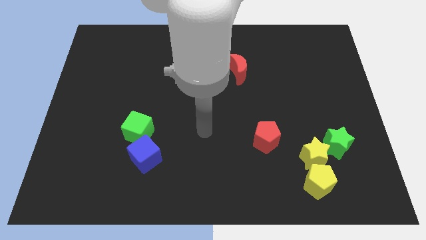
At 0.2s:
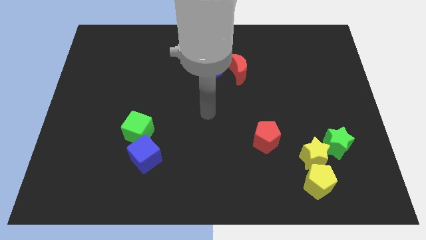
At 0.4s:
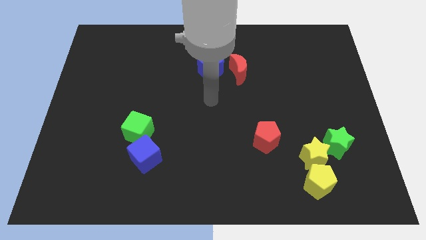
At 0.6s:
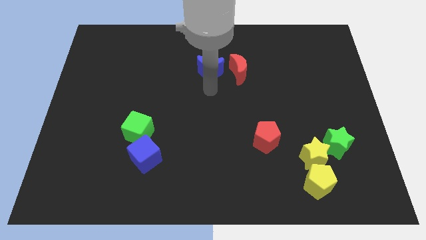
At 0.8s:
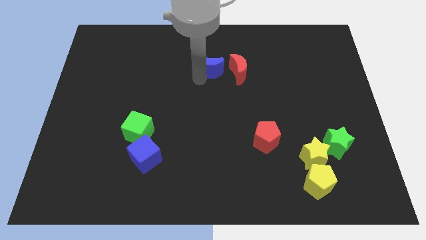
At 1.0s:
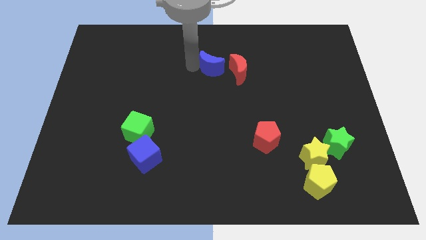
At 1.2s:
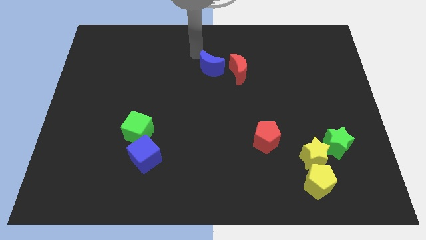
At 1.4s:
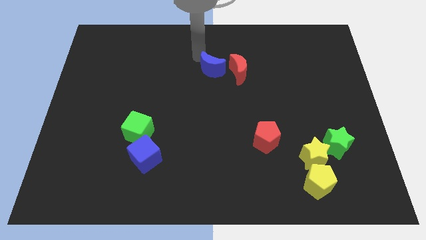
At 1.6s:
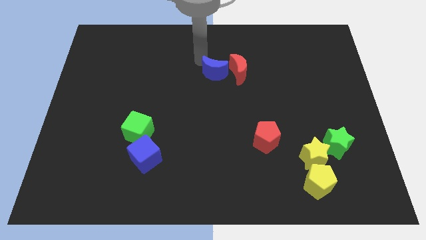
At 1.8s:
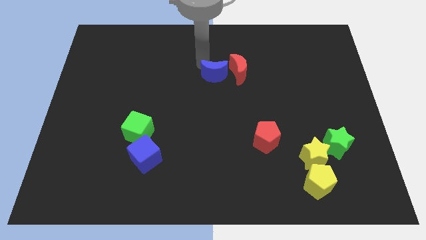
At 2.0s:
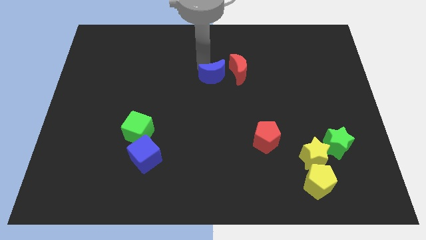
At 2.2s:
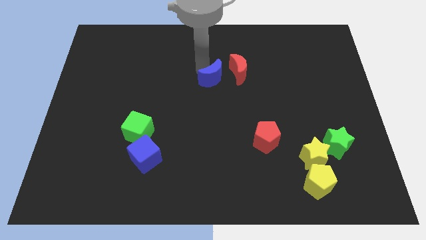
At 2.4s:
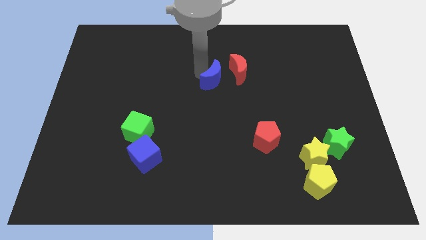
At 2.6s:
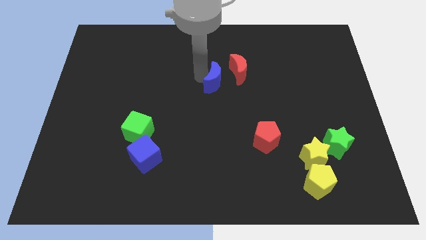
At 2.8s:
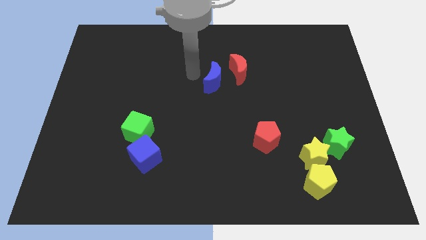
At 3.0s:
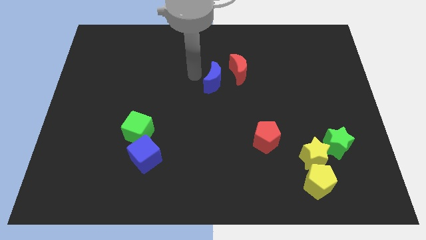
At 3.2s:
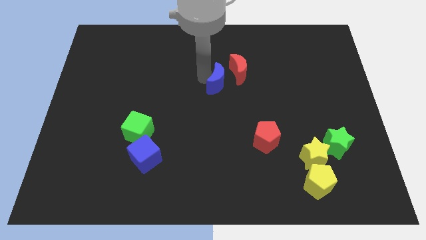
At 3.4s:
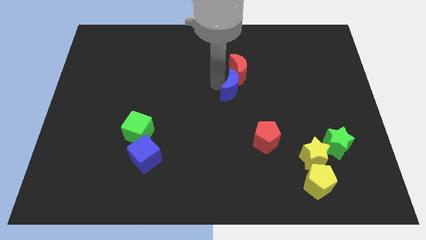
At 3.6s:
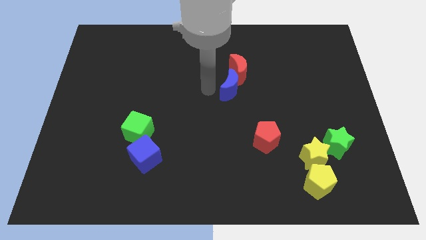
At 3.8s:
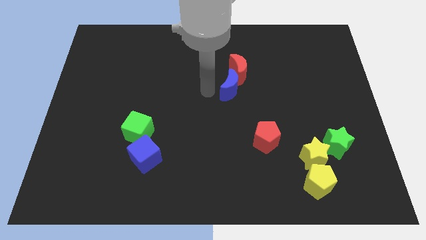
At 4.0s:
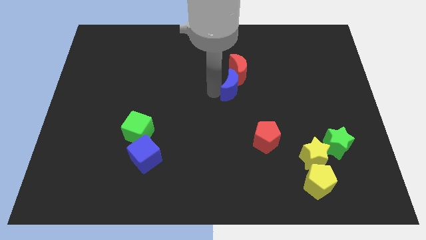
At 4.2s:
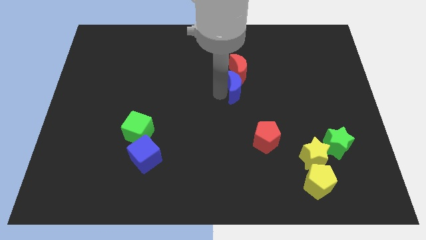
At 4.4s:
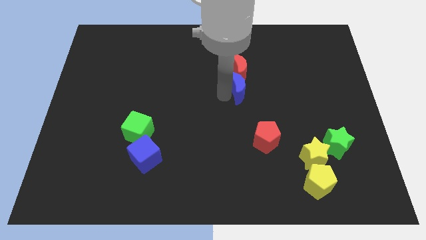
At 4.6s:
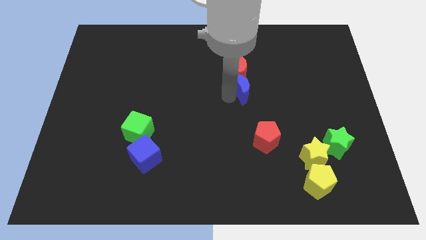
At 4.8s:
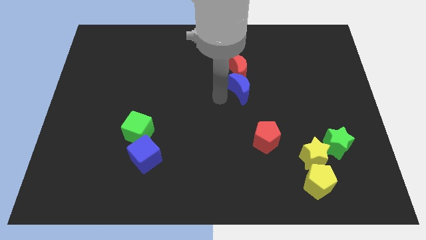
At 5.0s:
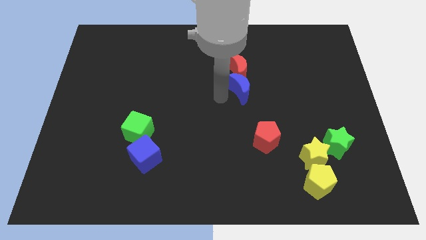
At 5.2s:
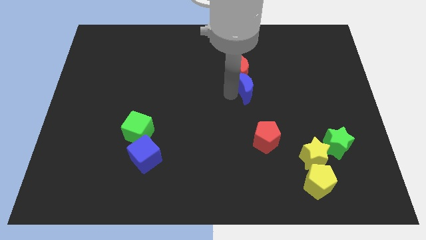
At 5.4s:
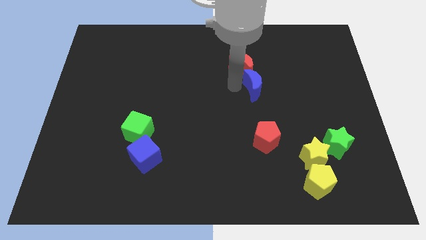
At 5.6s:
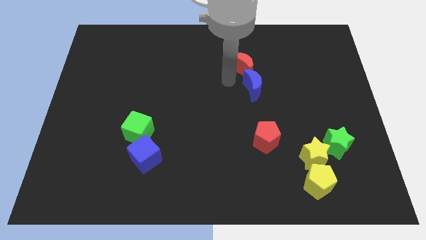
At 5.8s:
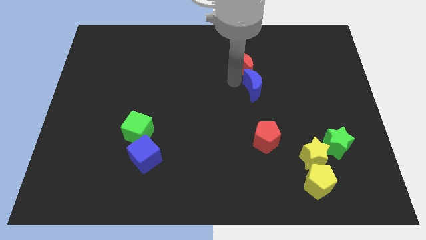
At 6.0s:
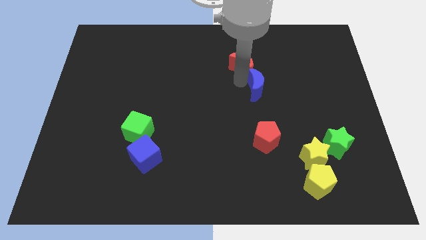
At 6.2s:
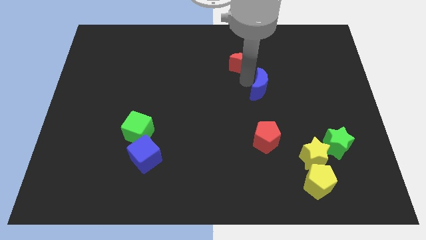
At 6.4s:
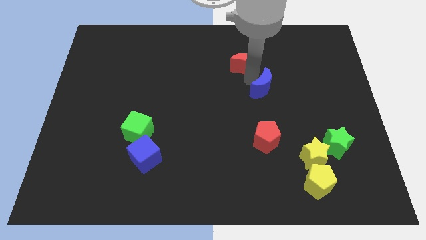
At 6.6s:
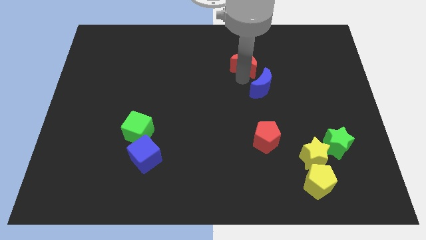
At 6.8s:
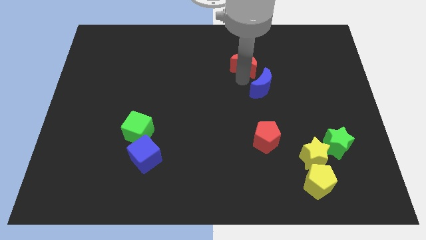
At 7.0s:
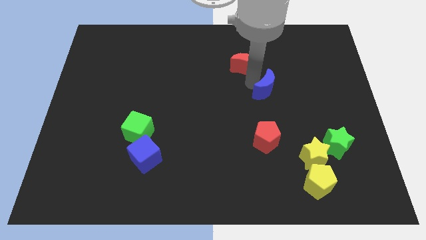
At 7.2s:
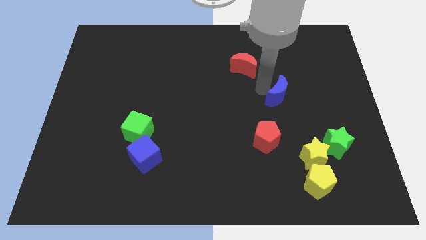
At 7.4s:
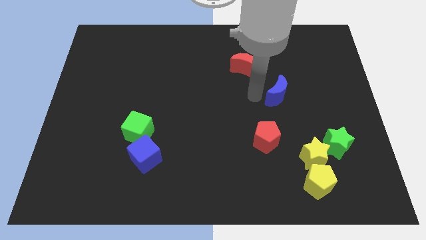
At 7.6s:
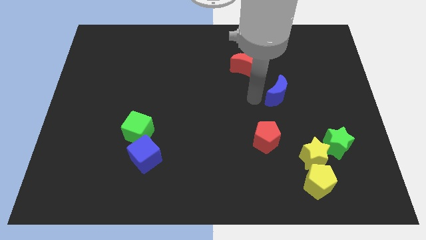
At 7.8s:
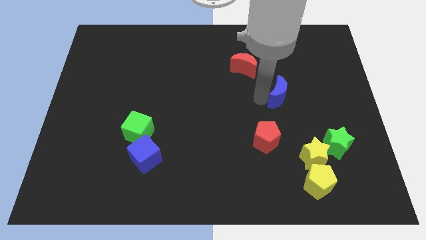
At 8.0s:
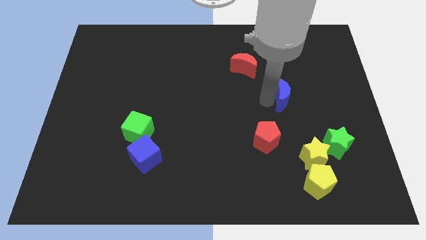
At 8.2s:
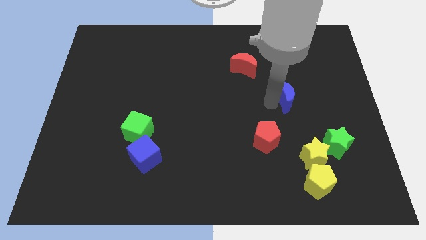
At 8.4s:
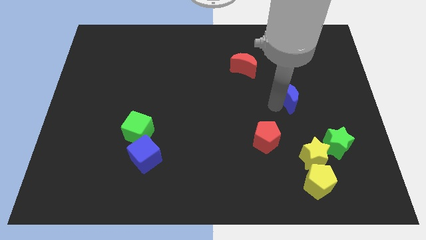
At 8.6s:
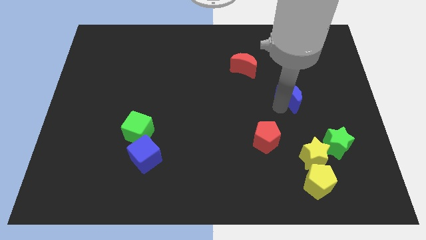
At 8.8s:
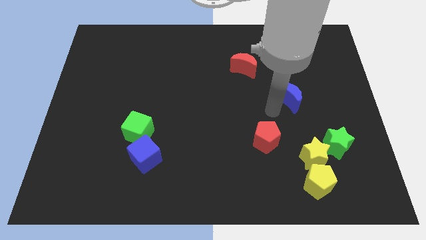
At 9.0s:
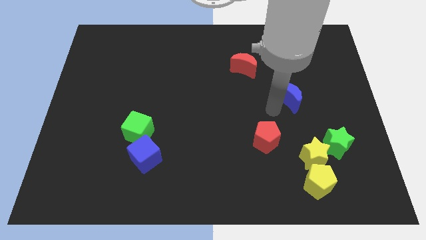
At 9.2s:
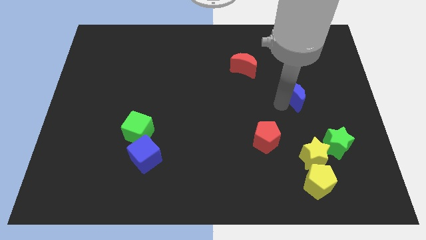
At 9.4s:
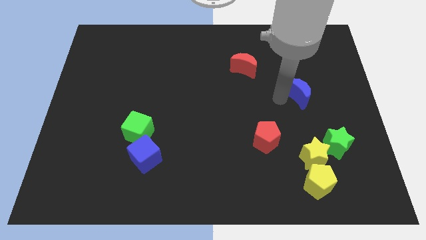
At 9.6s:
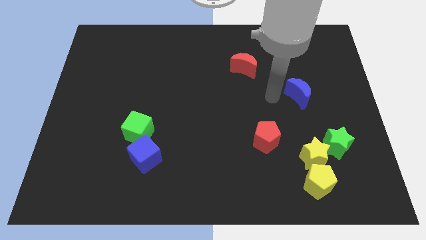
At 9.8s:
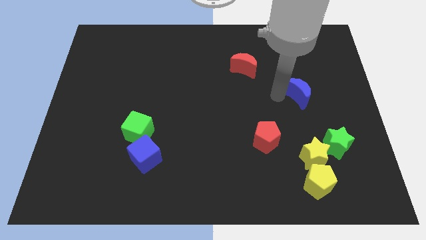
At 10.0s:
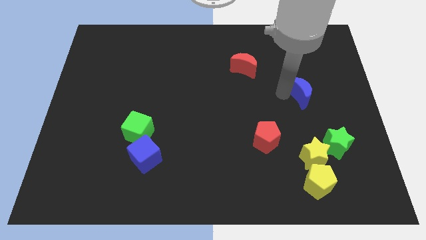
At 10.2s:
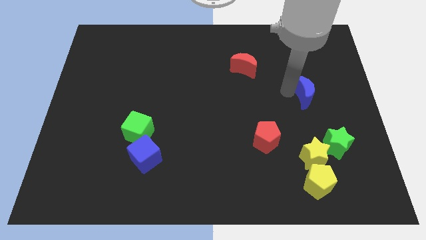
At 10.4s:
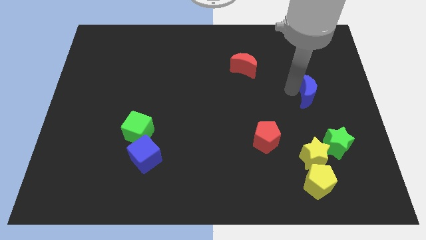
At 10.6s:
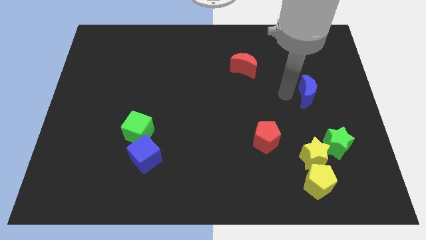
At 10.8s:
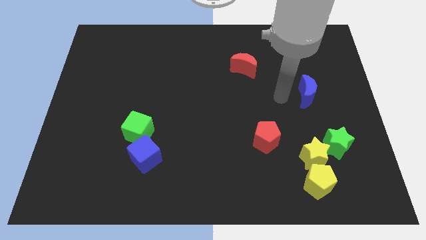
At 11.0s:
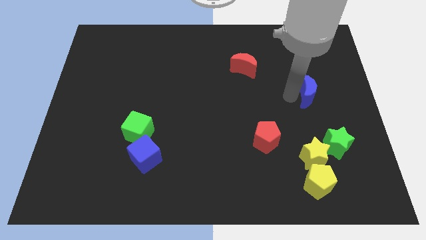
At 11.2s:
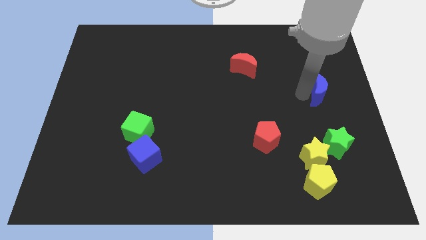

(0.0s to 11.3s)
push the blue moon to the right side
